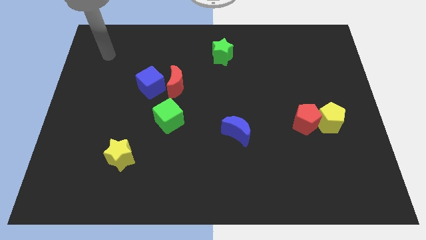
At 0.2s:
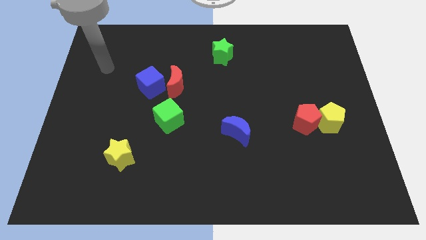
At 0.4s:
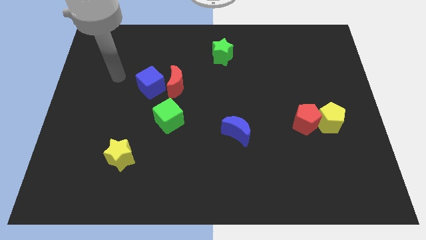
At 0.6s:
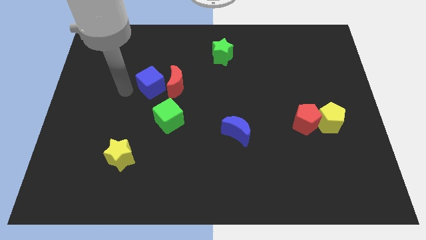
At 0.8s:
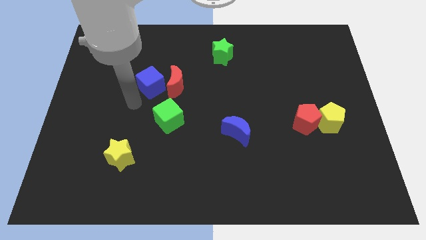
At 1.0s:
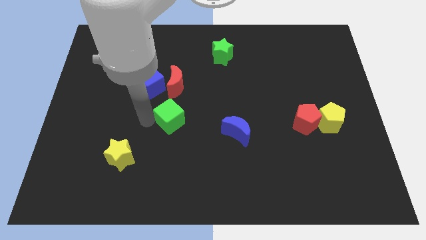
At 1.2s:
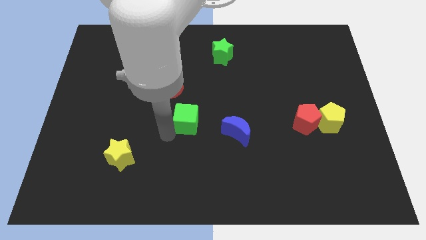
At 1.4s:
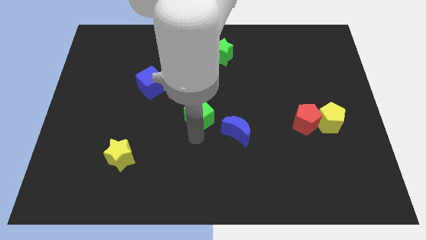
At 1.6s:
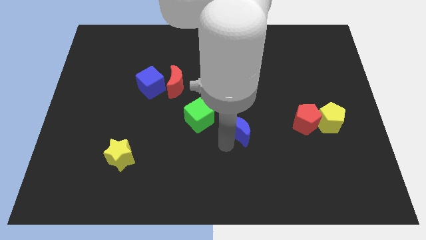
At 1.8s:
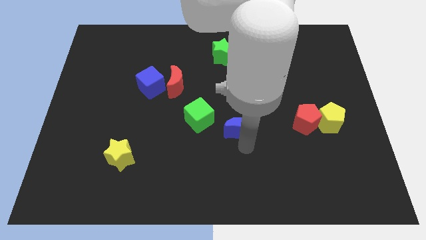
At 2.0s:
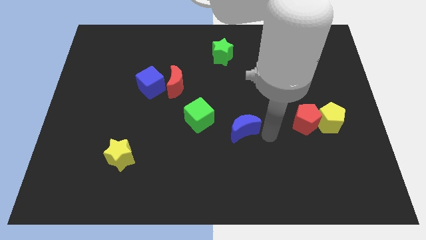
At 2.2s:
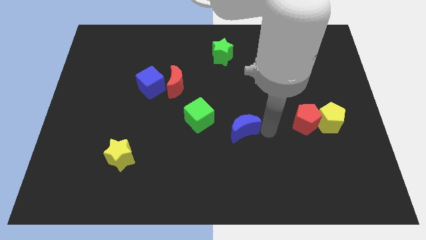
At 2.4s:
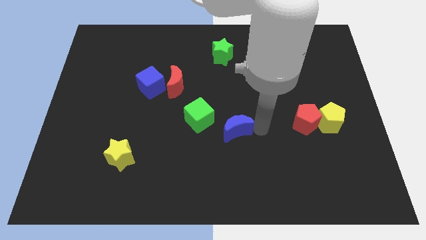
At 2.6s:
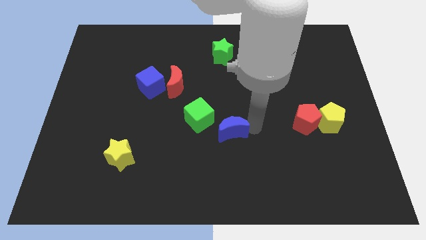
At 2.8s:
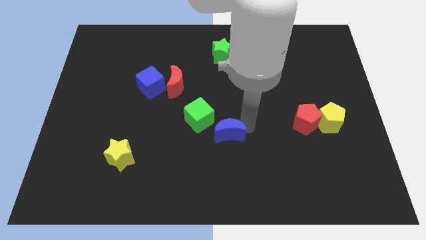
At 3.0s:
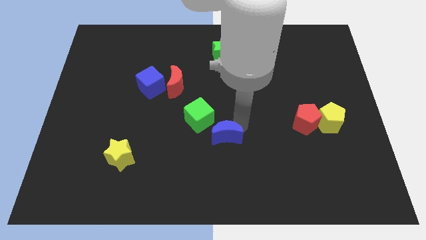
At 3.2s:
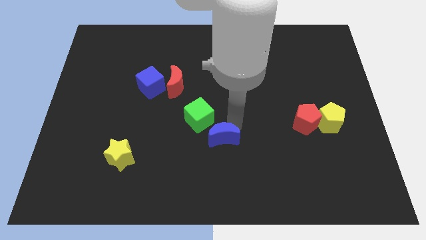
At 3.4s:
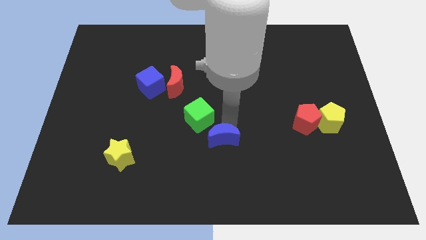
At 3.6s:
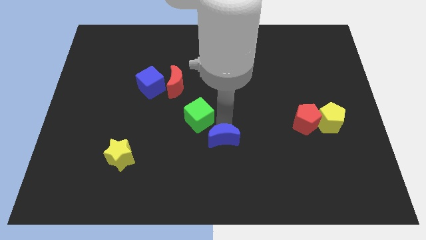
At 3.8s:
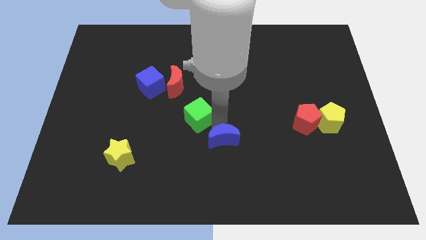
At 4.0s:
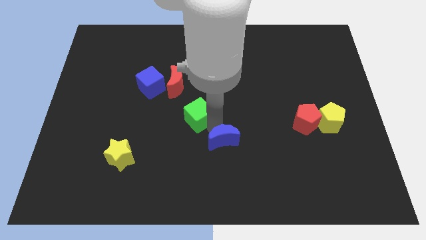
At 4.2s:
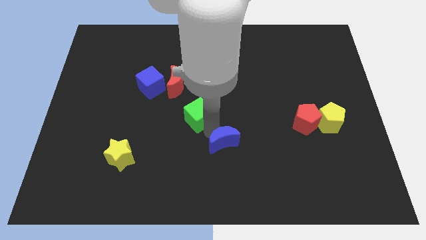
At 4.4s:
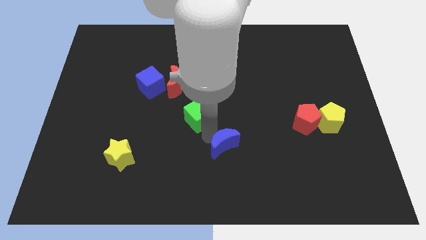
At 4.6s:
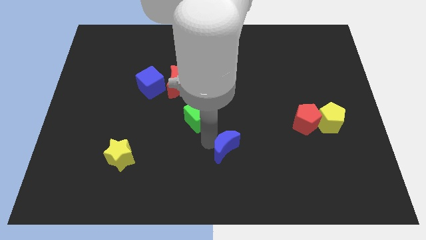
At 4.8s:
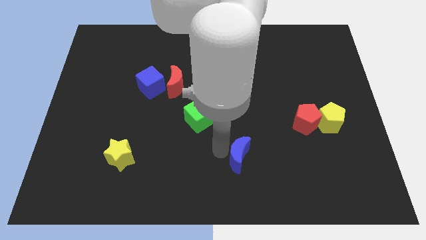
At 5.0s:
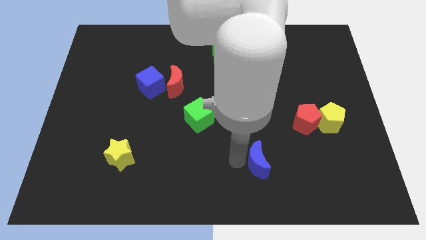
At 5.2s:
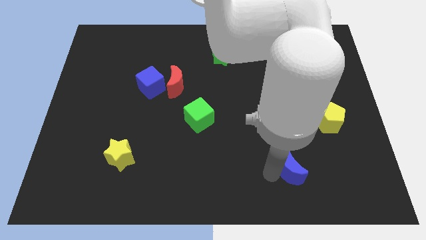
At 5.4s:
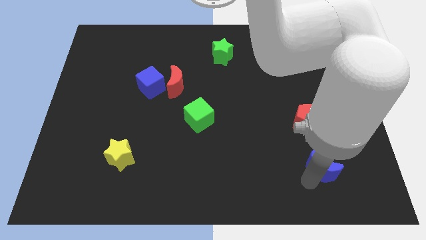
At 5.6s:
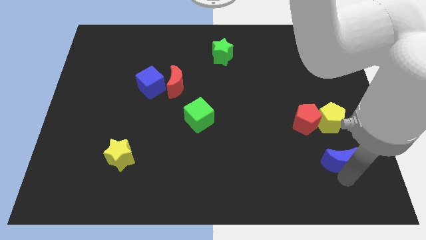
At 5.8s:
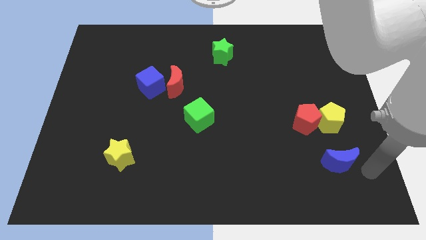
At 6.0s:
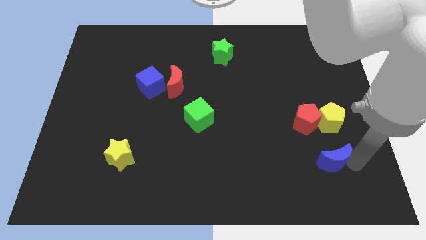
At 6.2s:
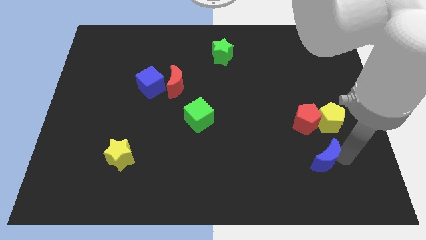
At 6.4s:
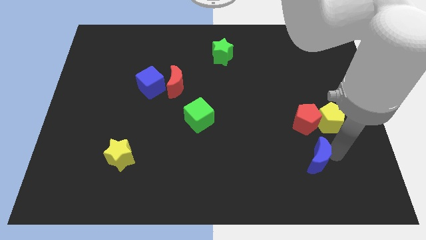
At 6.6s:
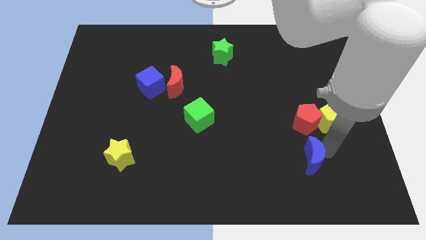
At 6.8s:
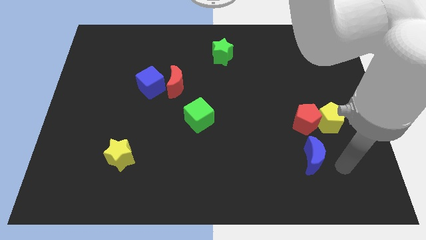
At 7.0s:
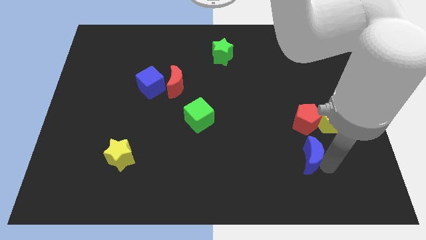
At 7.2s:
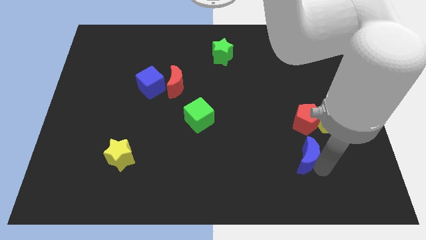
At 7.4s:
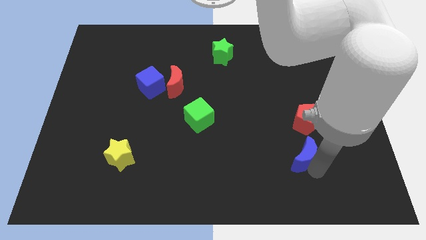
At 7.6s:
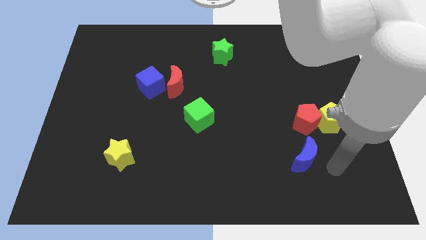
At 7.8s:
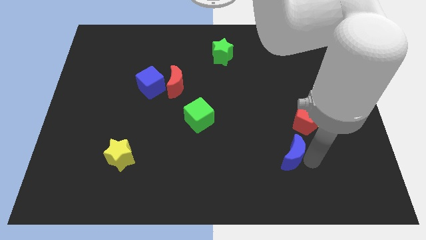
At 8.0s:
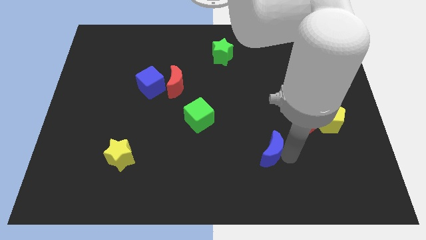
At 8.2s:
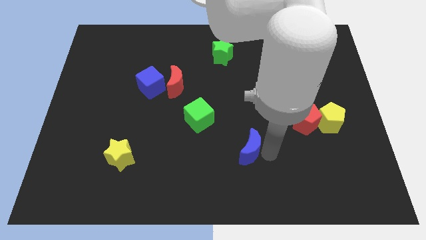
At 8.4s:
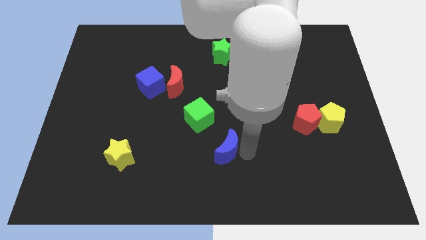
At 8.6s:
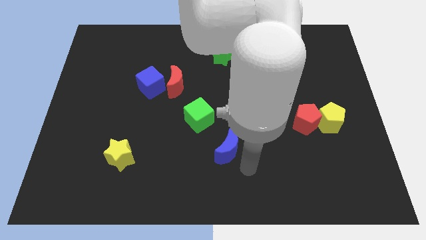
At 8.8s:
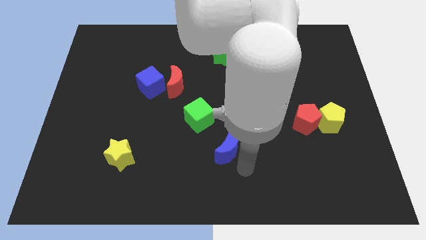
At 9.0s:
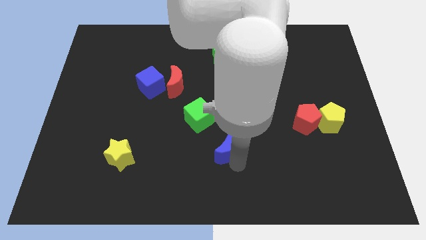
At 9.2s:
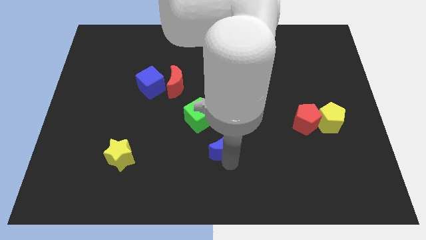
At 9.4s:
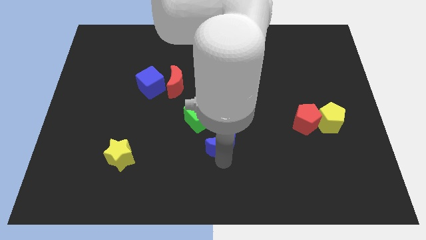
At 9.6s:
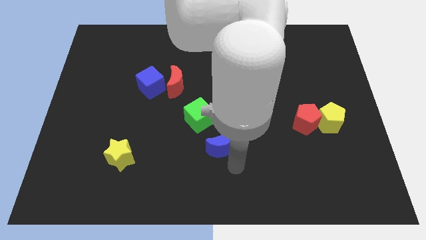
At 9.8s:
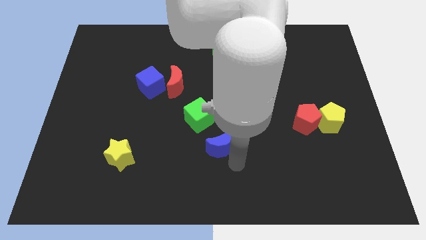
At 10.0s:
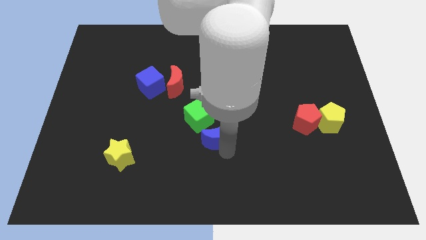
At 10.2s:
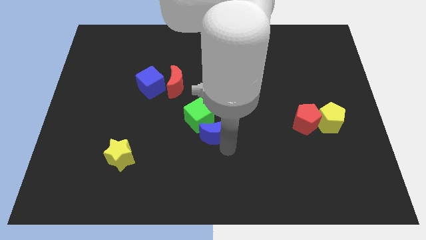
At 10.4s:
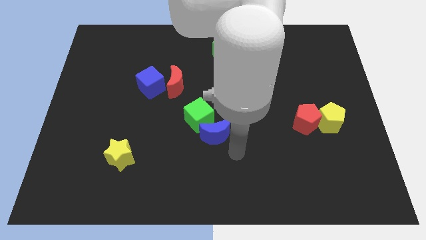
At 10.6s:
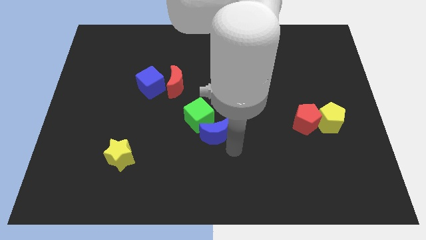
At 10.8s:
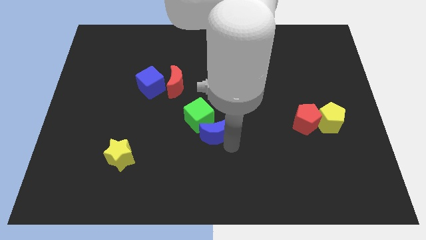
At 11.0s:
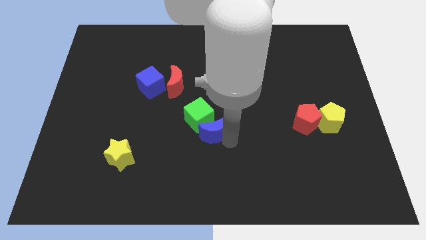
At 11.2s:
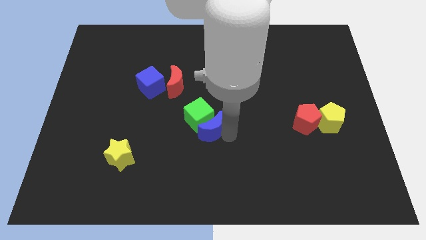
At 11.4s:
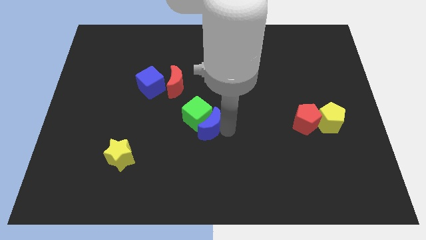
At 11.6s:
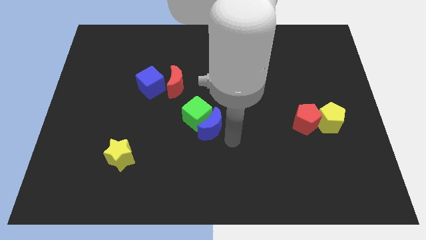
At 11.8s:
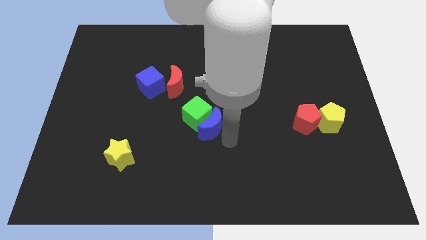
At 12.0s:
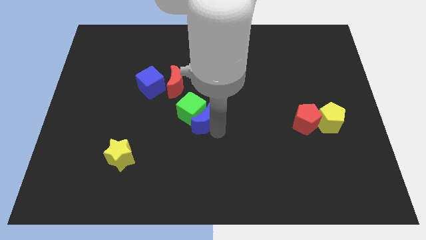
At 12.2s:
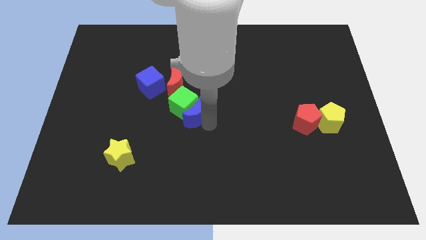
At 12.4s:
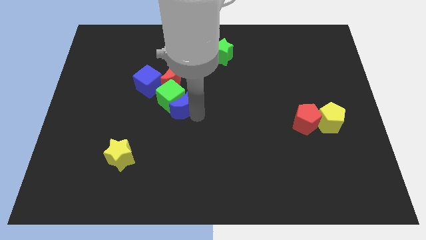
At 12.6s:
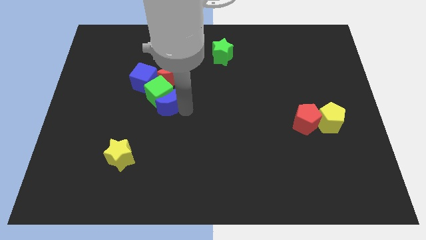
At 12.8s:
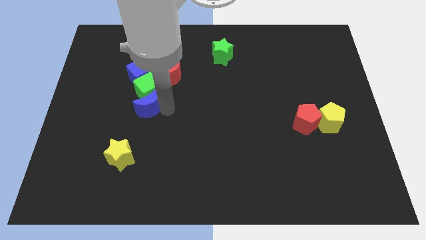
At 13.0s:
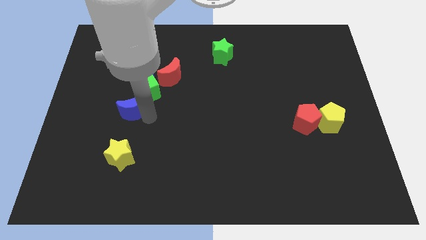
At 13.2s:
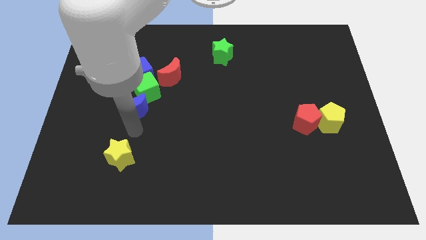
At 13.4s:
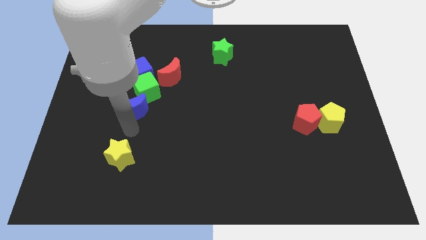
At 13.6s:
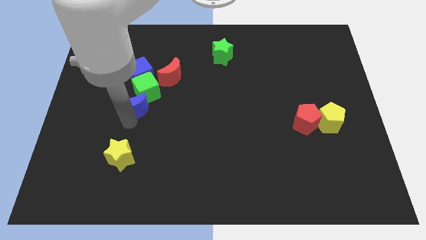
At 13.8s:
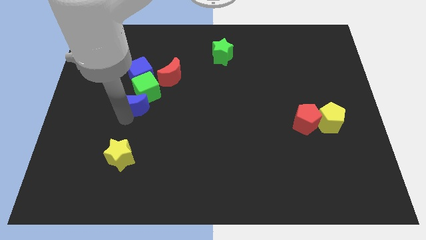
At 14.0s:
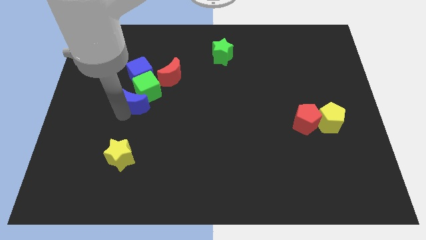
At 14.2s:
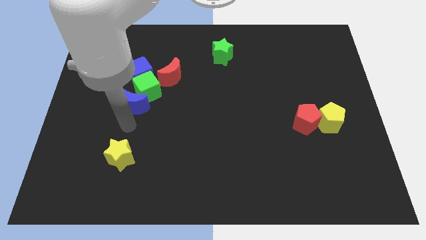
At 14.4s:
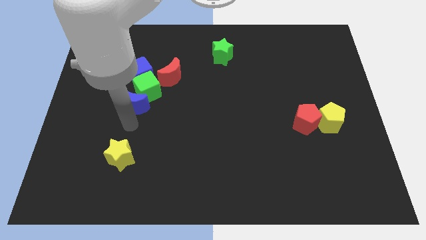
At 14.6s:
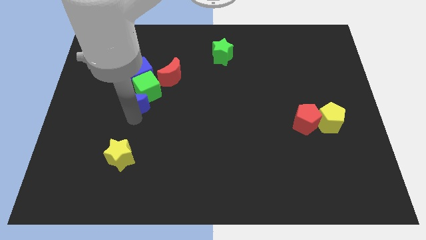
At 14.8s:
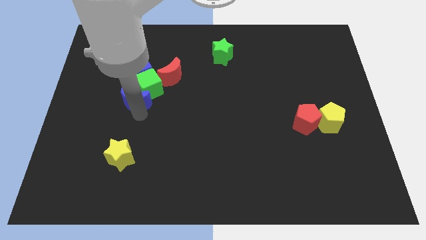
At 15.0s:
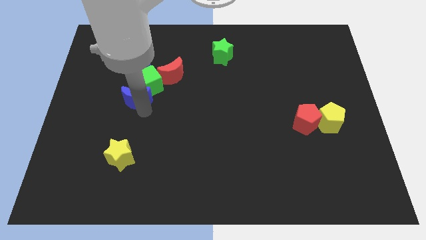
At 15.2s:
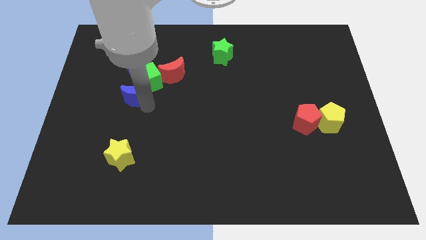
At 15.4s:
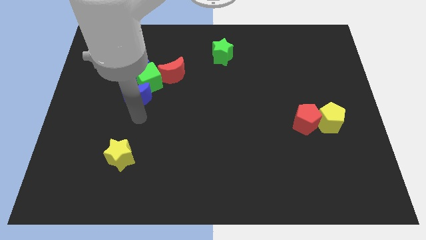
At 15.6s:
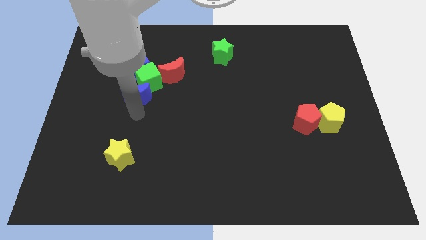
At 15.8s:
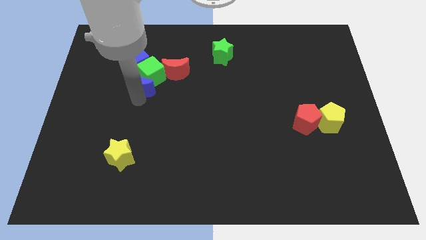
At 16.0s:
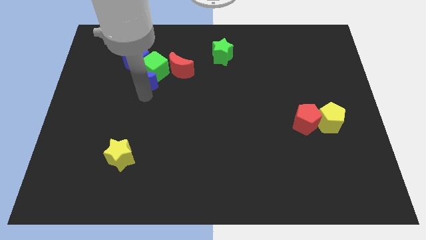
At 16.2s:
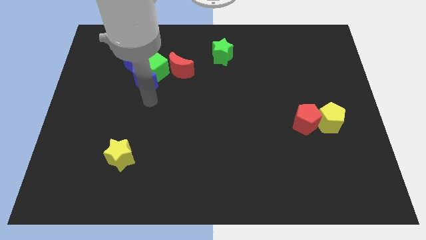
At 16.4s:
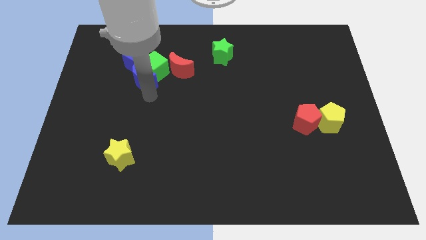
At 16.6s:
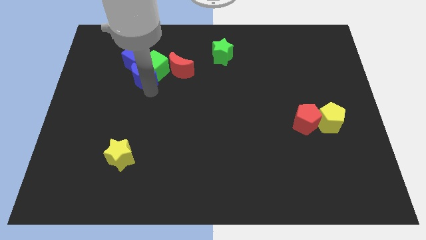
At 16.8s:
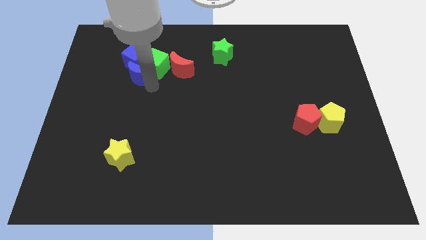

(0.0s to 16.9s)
push the blue moon next to the blue cube
